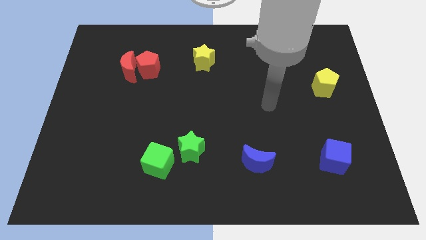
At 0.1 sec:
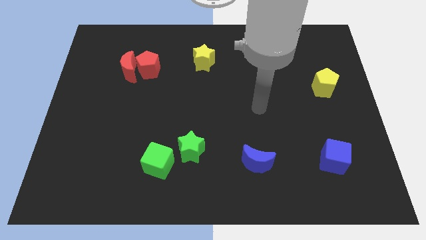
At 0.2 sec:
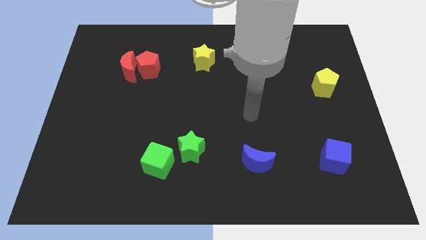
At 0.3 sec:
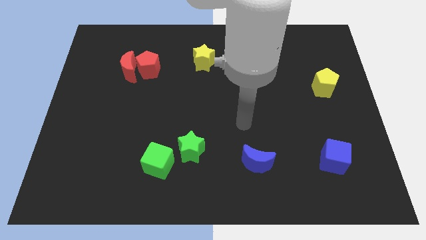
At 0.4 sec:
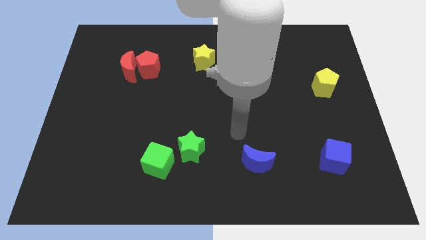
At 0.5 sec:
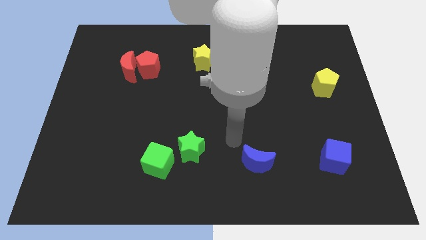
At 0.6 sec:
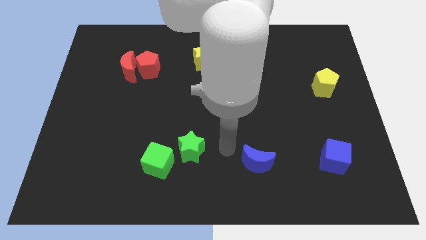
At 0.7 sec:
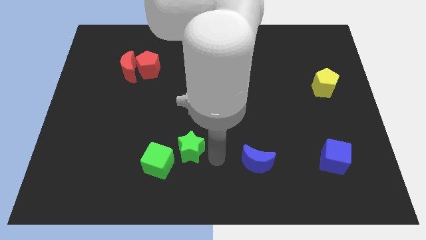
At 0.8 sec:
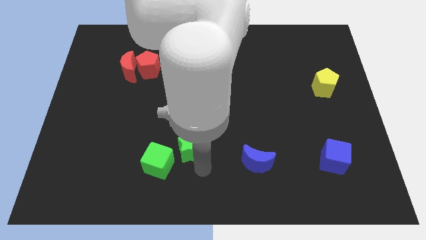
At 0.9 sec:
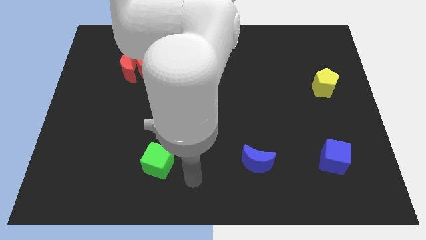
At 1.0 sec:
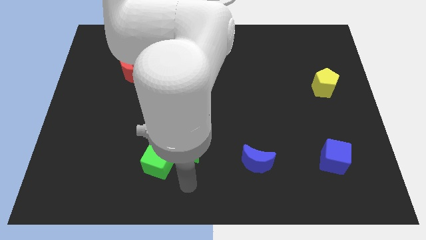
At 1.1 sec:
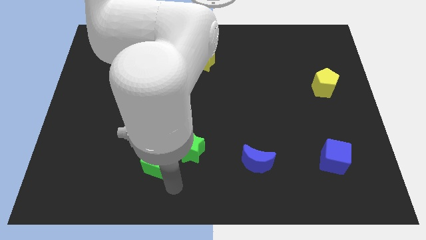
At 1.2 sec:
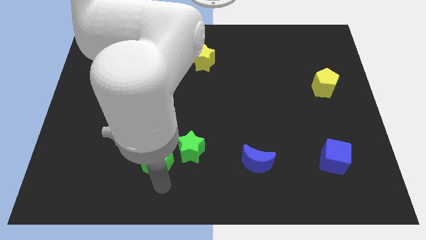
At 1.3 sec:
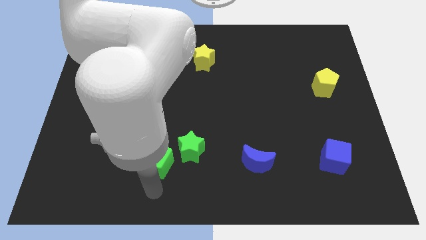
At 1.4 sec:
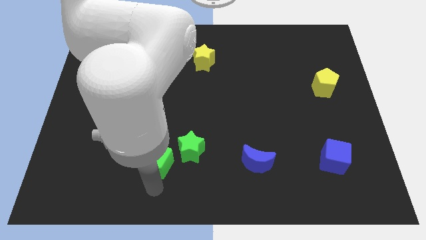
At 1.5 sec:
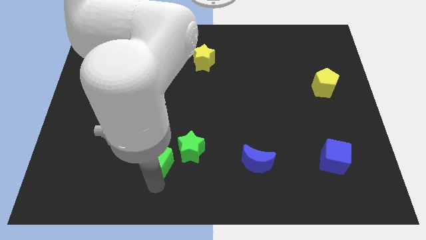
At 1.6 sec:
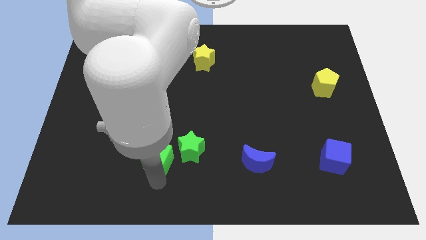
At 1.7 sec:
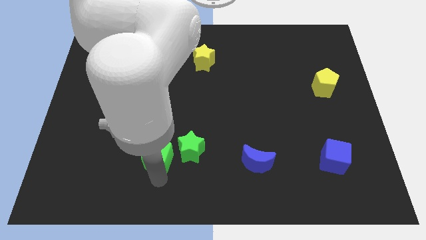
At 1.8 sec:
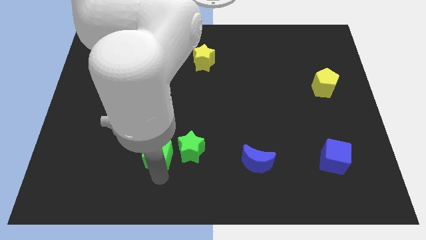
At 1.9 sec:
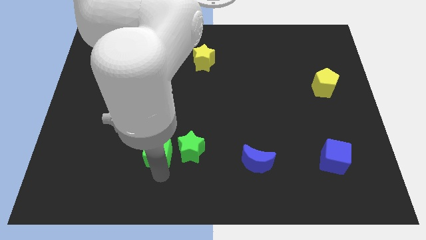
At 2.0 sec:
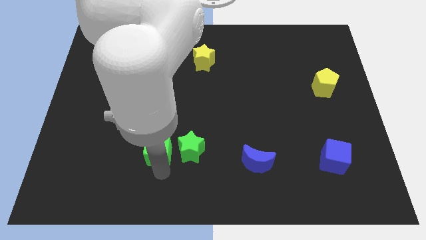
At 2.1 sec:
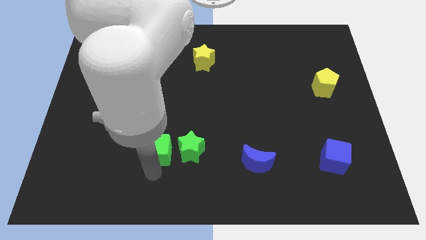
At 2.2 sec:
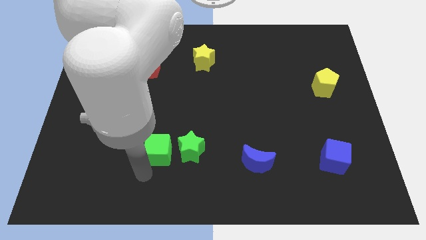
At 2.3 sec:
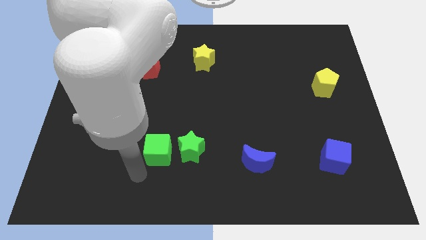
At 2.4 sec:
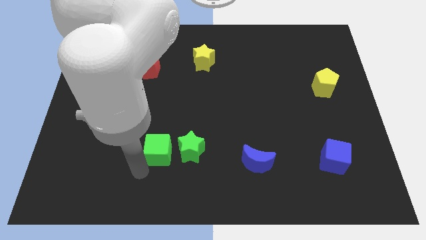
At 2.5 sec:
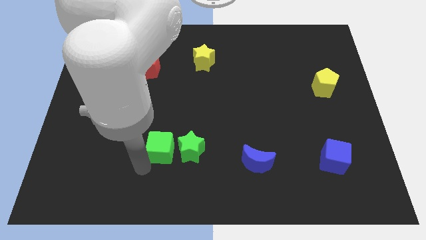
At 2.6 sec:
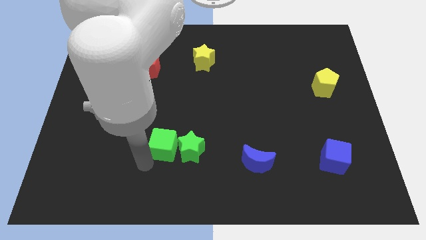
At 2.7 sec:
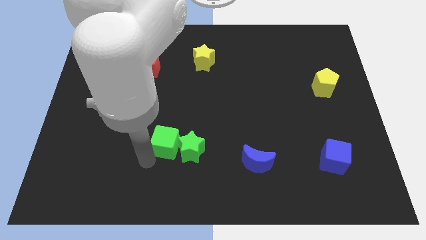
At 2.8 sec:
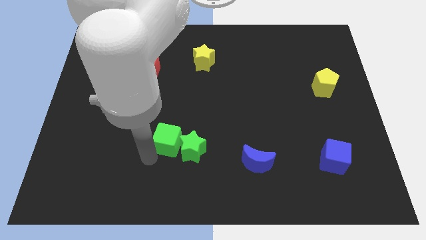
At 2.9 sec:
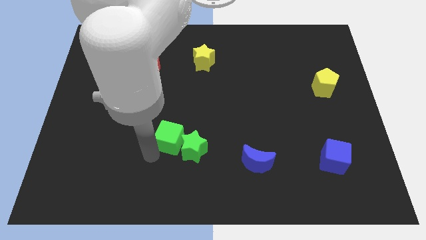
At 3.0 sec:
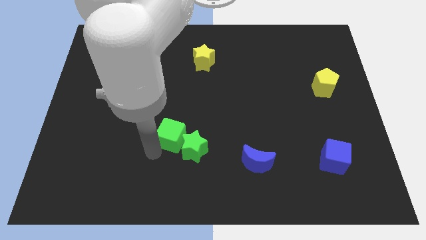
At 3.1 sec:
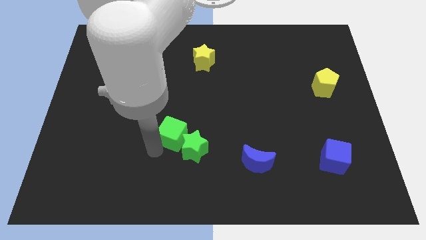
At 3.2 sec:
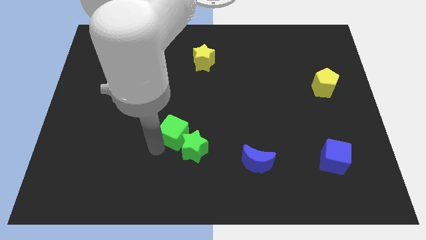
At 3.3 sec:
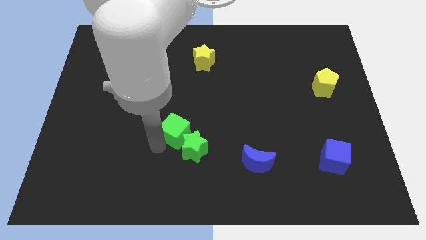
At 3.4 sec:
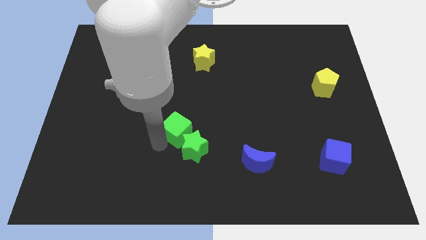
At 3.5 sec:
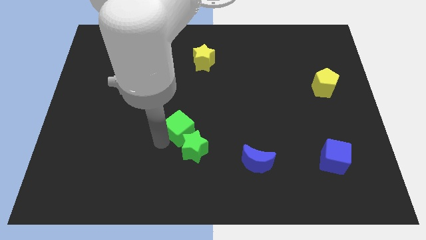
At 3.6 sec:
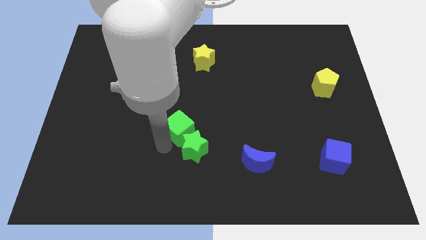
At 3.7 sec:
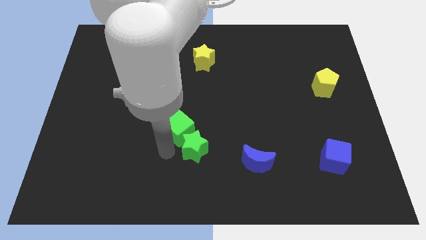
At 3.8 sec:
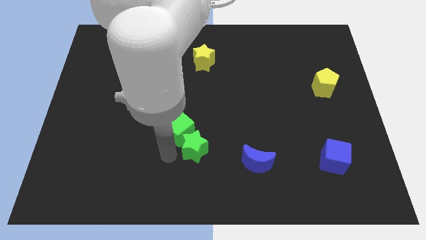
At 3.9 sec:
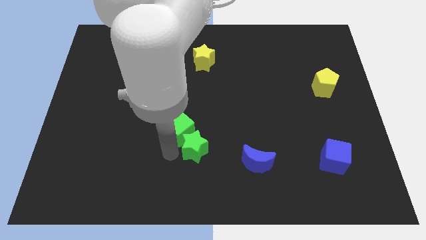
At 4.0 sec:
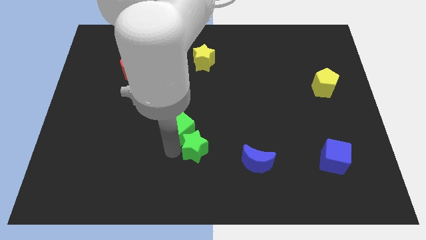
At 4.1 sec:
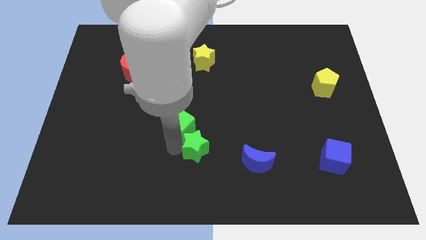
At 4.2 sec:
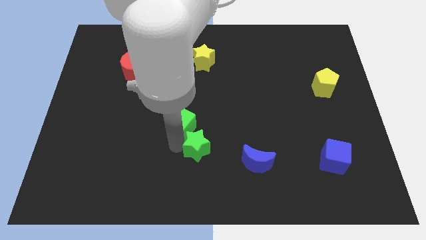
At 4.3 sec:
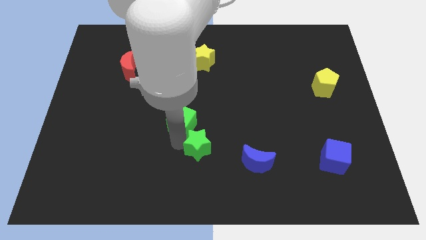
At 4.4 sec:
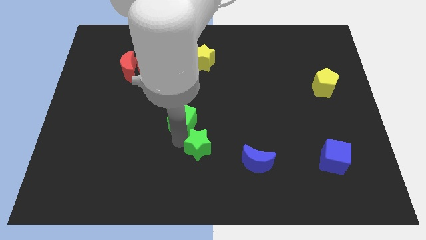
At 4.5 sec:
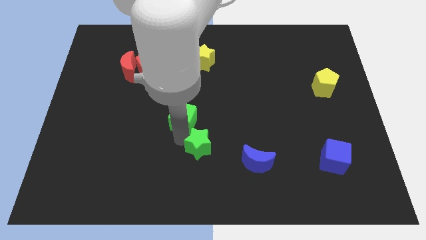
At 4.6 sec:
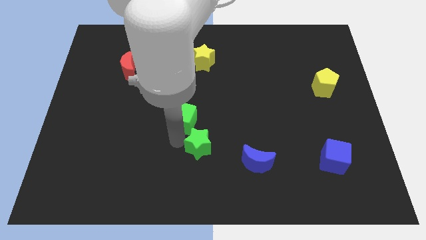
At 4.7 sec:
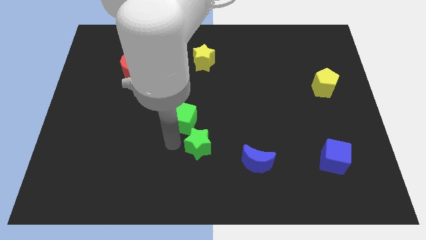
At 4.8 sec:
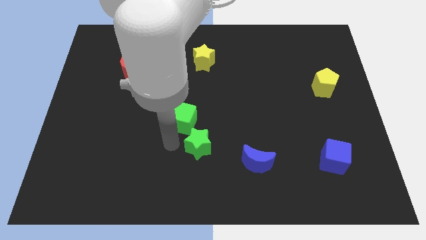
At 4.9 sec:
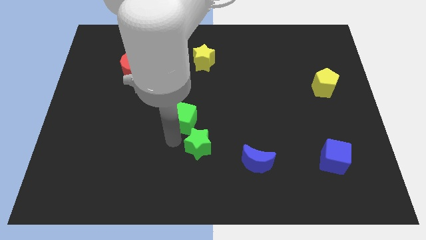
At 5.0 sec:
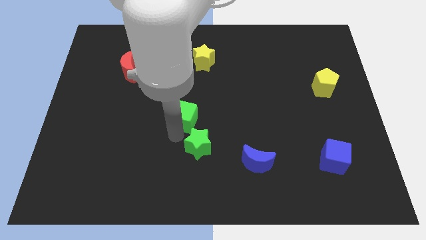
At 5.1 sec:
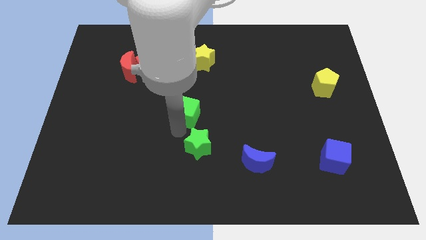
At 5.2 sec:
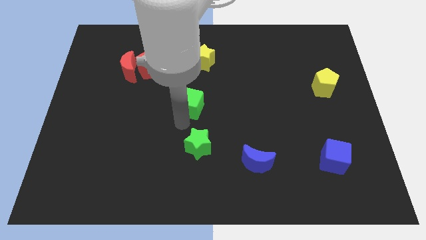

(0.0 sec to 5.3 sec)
put the green cube to the bottom of the yellow star

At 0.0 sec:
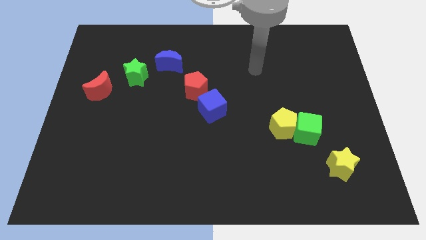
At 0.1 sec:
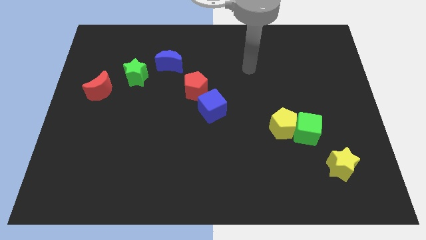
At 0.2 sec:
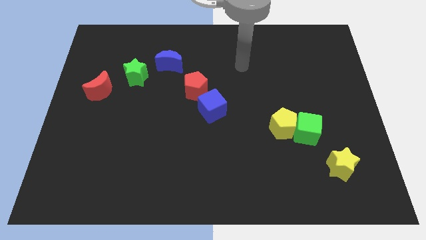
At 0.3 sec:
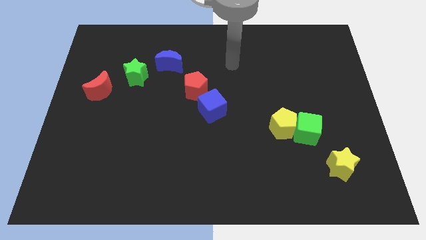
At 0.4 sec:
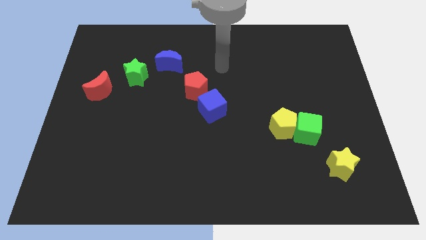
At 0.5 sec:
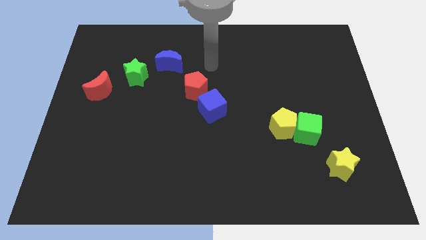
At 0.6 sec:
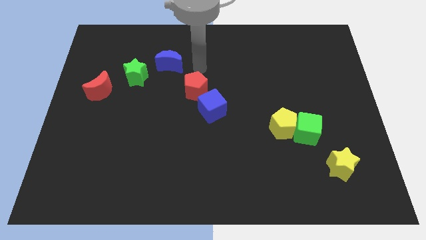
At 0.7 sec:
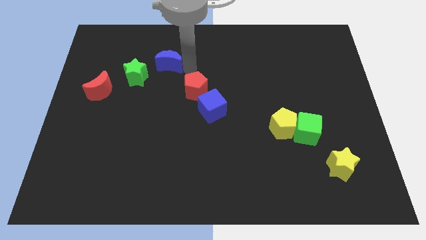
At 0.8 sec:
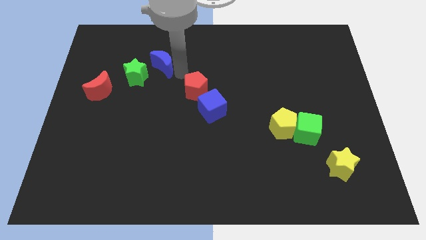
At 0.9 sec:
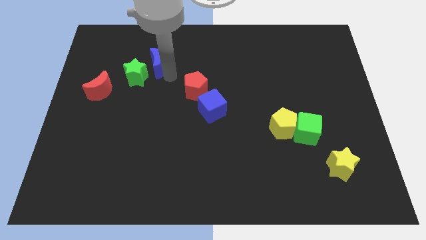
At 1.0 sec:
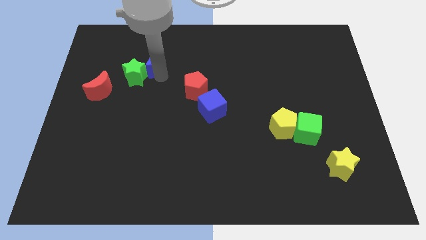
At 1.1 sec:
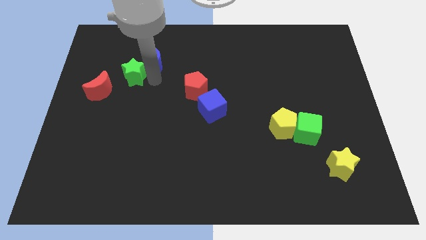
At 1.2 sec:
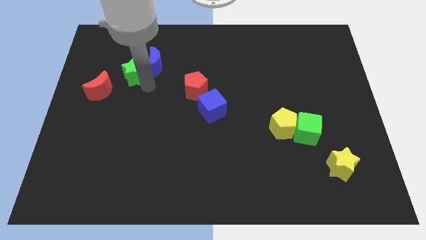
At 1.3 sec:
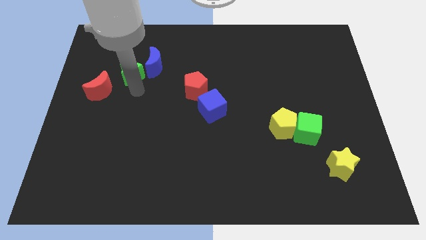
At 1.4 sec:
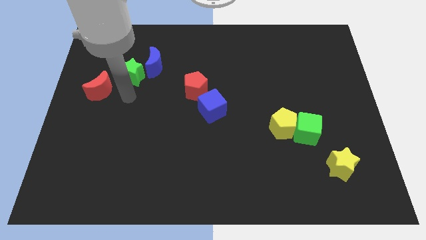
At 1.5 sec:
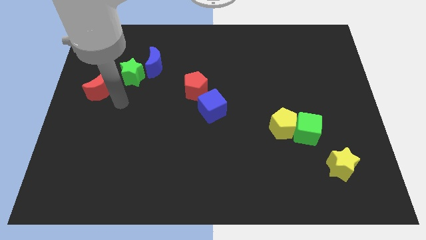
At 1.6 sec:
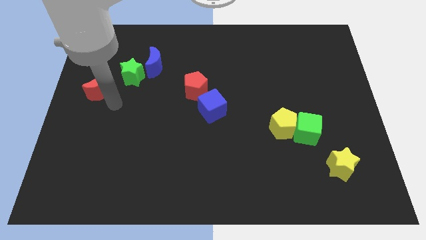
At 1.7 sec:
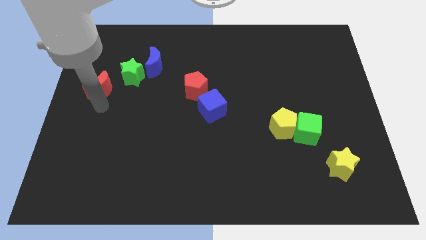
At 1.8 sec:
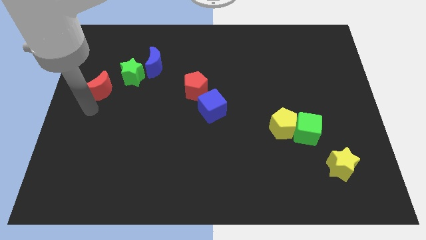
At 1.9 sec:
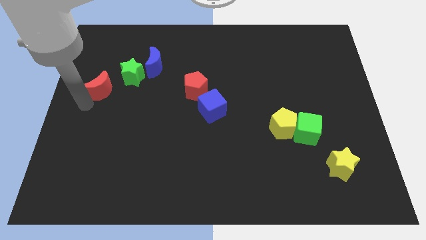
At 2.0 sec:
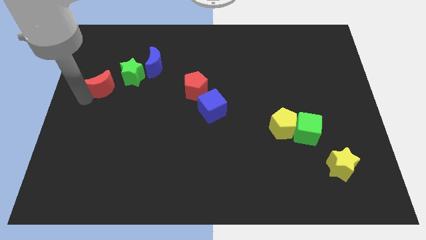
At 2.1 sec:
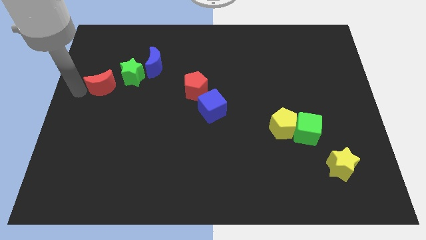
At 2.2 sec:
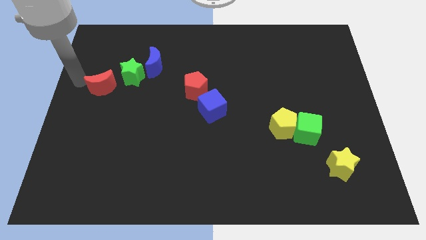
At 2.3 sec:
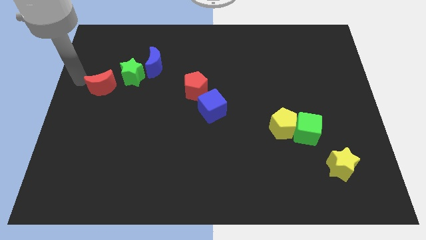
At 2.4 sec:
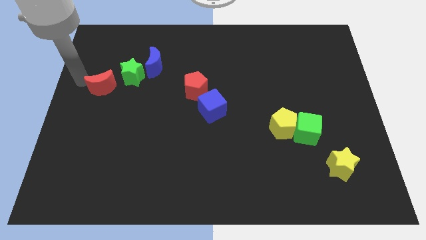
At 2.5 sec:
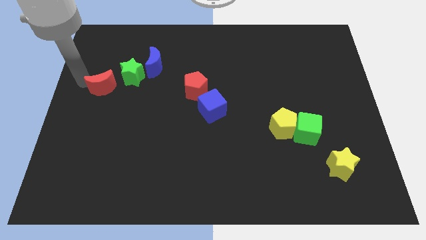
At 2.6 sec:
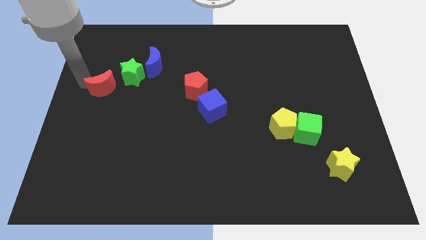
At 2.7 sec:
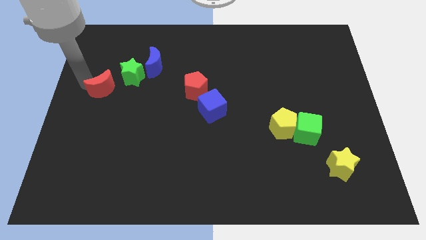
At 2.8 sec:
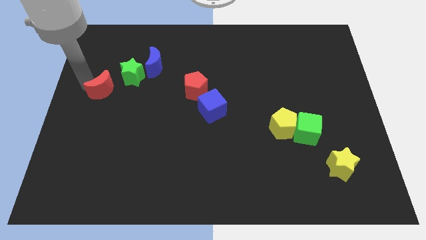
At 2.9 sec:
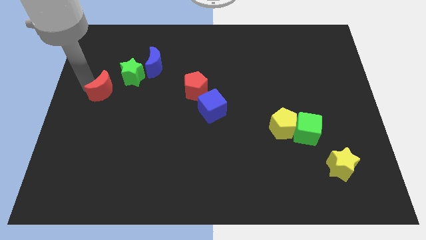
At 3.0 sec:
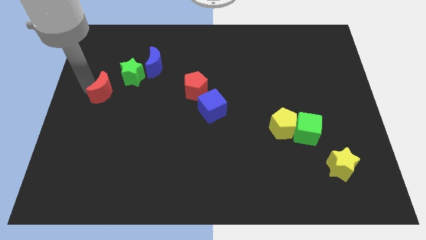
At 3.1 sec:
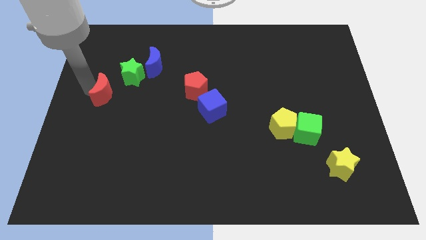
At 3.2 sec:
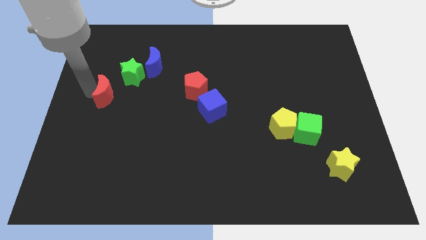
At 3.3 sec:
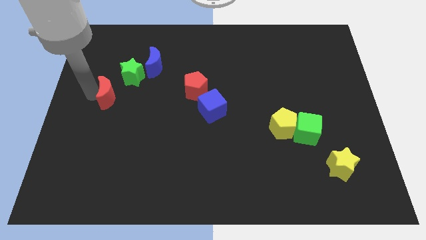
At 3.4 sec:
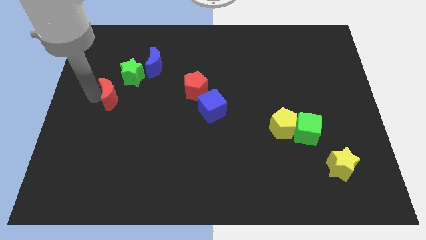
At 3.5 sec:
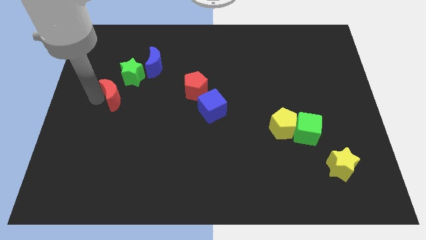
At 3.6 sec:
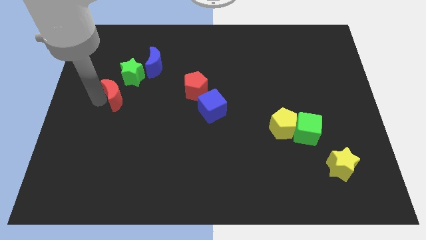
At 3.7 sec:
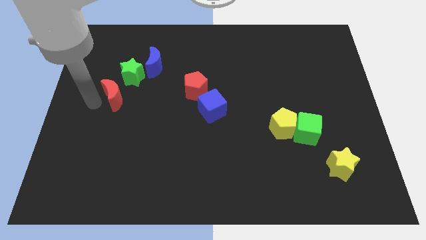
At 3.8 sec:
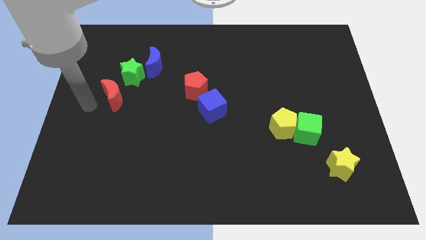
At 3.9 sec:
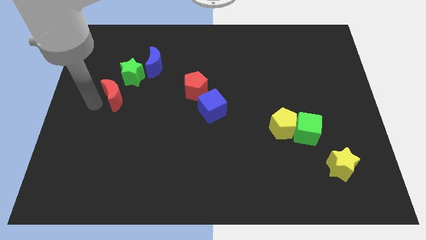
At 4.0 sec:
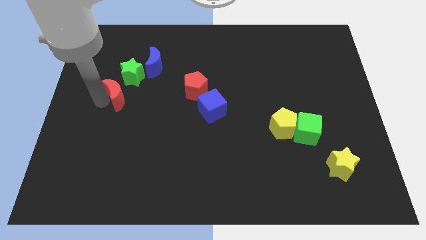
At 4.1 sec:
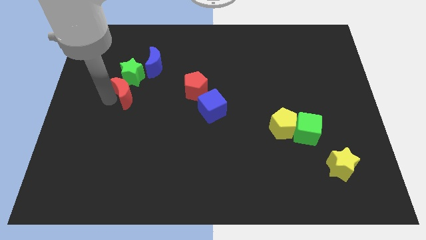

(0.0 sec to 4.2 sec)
push the red moon diagonally down and to the right of the green star
